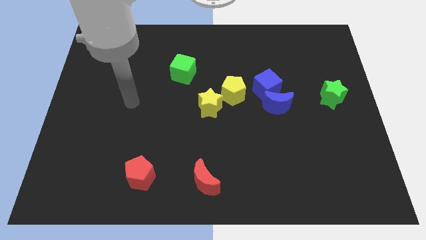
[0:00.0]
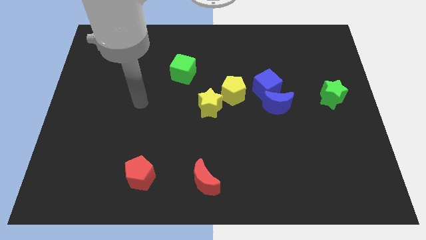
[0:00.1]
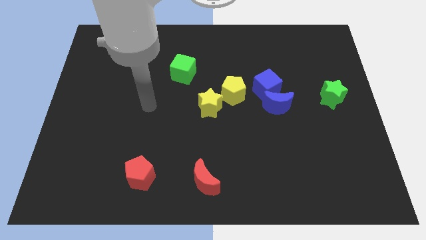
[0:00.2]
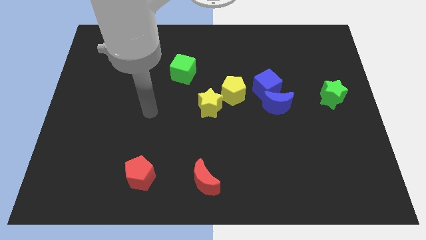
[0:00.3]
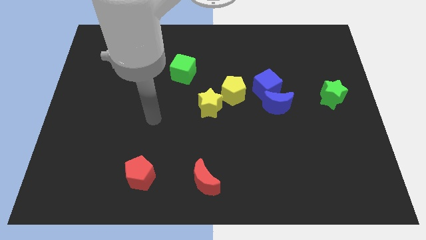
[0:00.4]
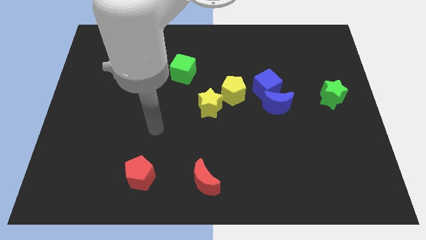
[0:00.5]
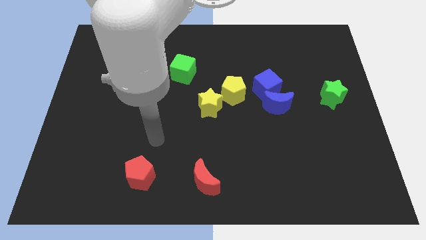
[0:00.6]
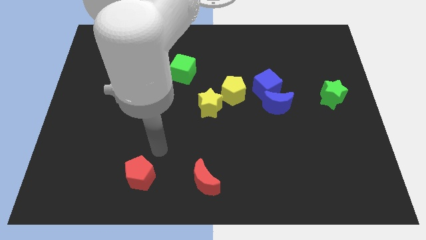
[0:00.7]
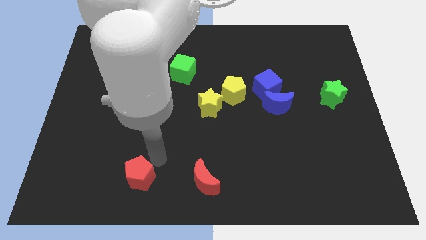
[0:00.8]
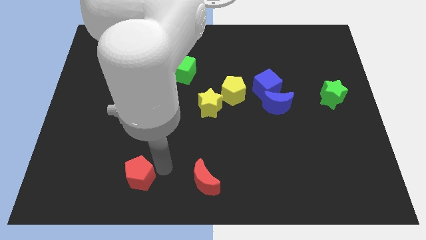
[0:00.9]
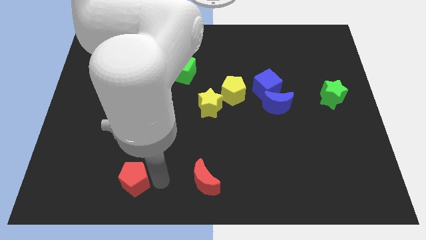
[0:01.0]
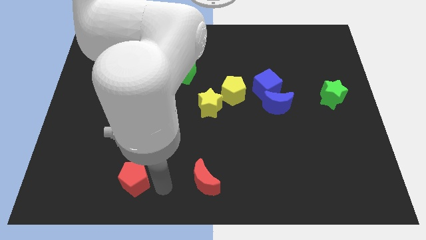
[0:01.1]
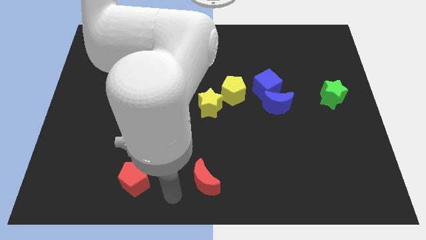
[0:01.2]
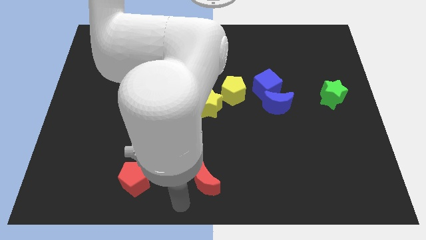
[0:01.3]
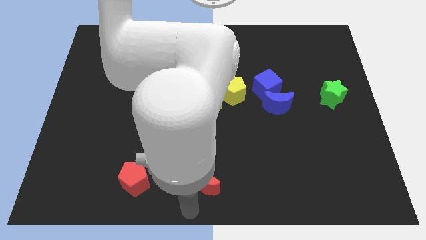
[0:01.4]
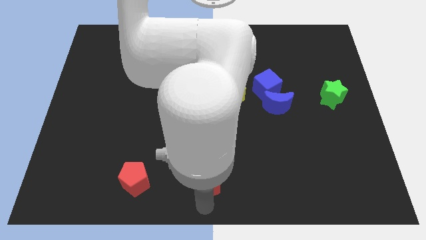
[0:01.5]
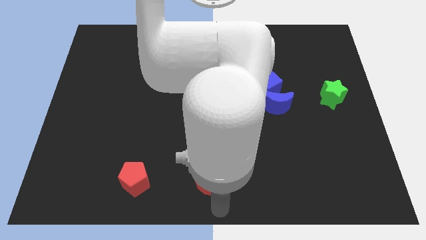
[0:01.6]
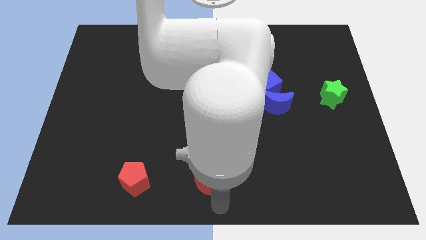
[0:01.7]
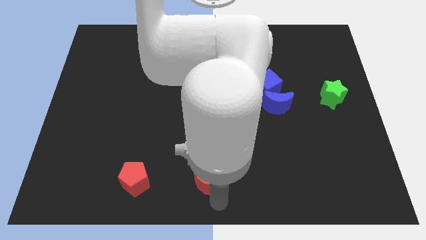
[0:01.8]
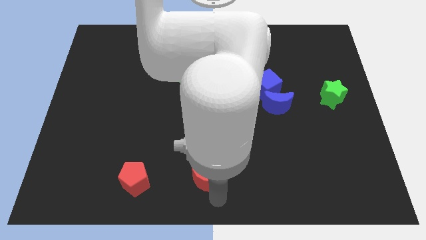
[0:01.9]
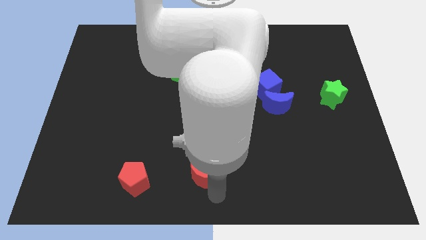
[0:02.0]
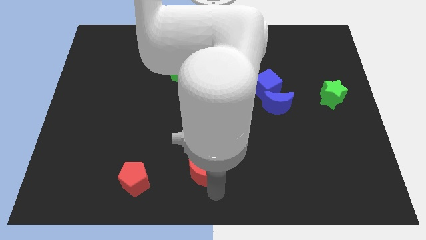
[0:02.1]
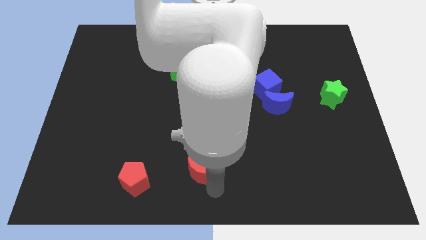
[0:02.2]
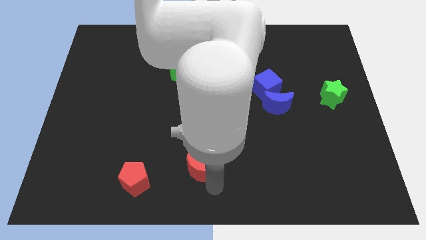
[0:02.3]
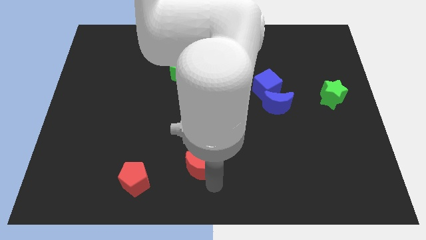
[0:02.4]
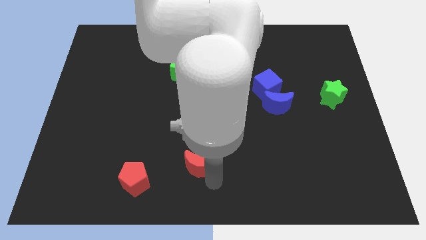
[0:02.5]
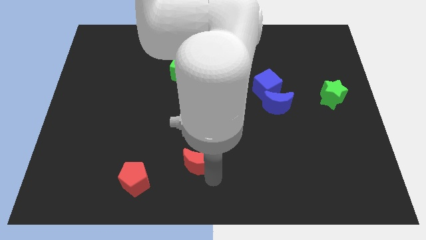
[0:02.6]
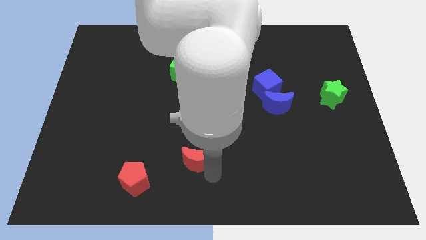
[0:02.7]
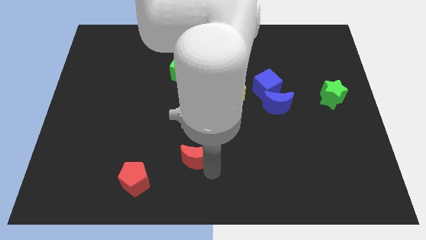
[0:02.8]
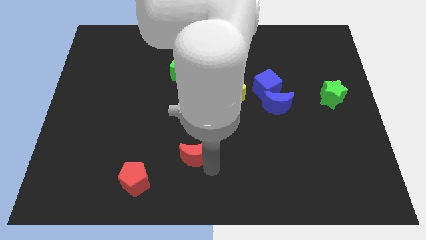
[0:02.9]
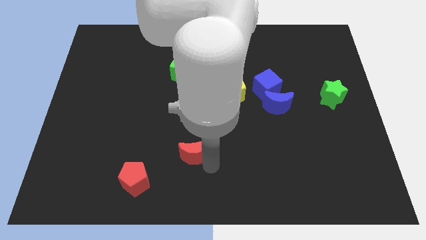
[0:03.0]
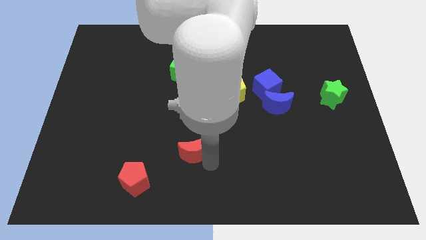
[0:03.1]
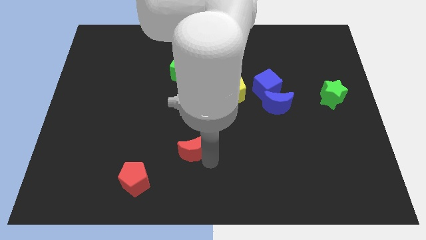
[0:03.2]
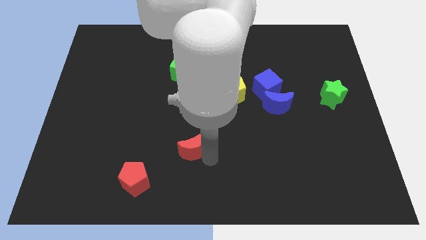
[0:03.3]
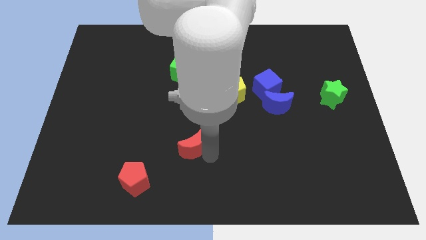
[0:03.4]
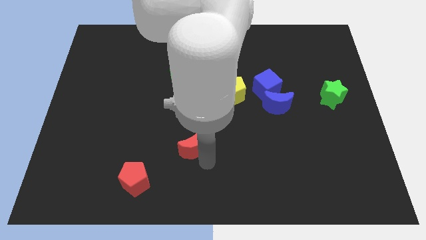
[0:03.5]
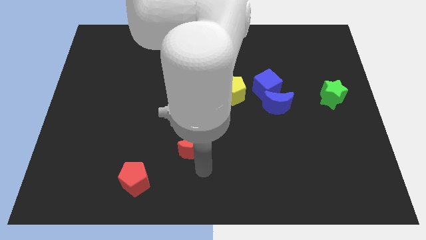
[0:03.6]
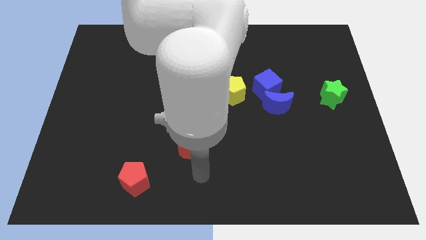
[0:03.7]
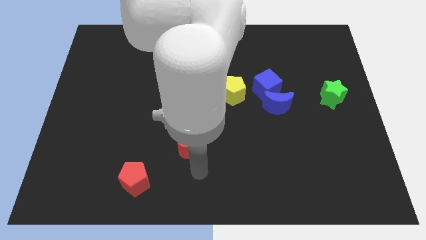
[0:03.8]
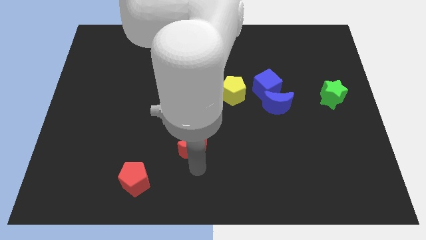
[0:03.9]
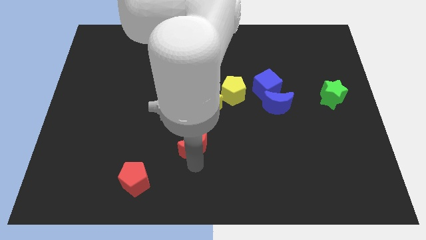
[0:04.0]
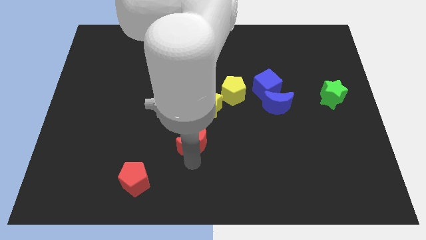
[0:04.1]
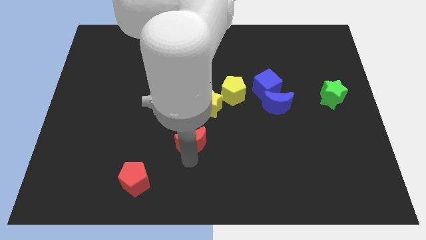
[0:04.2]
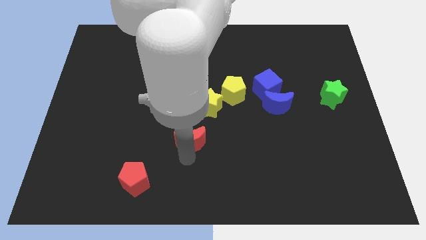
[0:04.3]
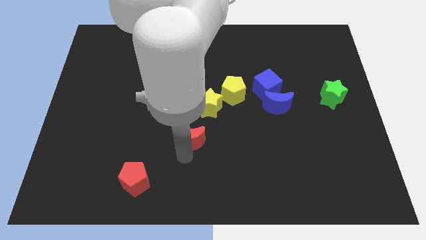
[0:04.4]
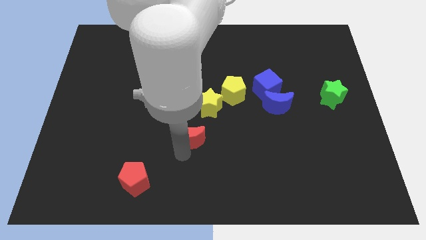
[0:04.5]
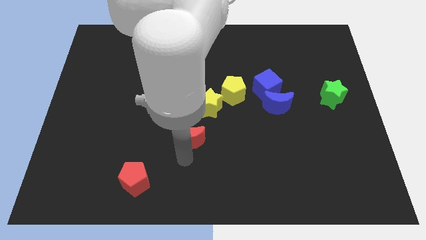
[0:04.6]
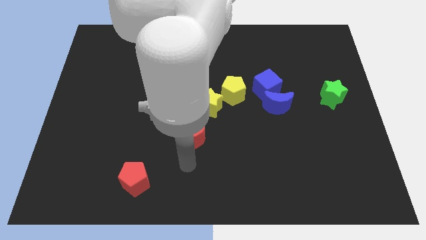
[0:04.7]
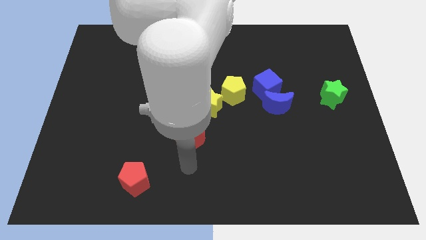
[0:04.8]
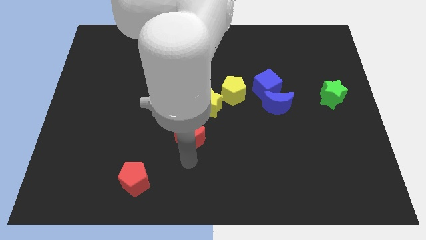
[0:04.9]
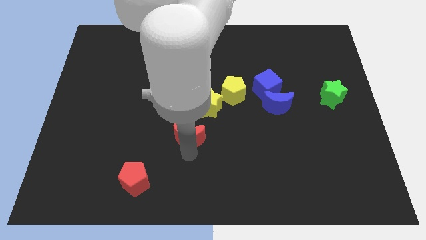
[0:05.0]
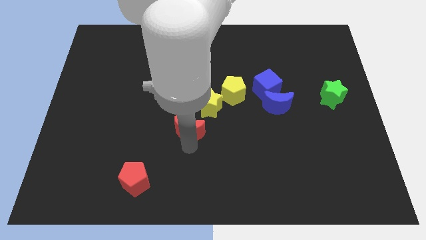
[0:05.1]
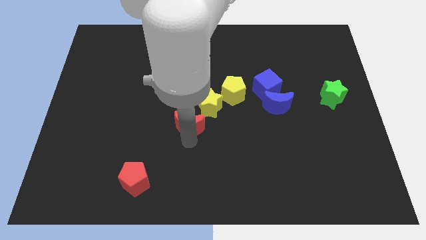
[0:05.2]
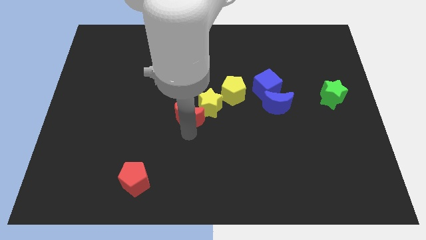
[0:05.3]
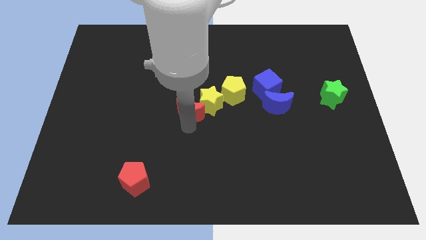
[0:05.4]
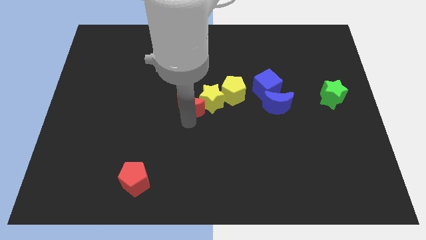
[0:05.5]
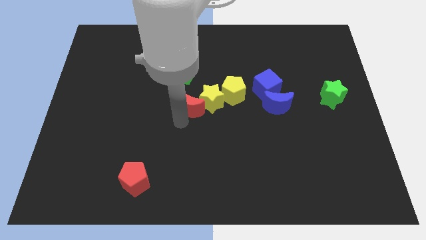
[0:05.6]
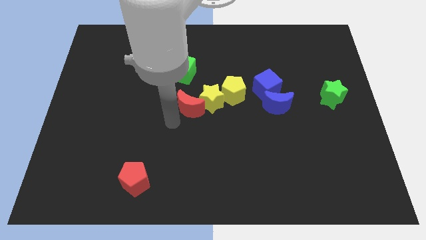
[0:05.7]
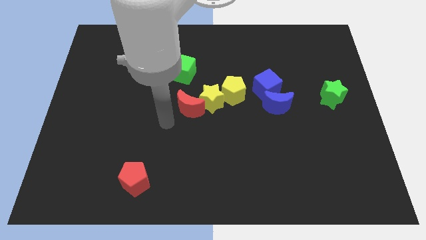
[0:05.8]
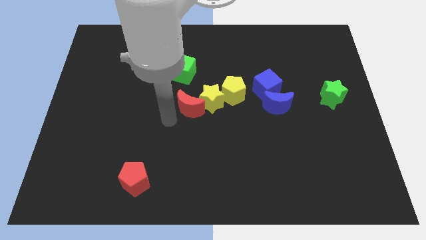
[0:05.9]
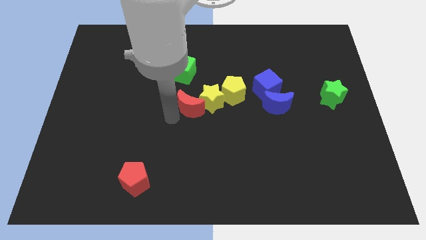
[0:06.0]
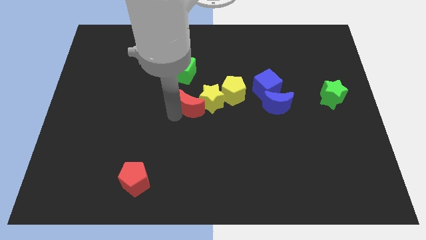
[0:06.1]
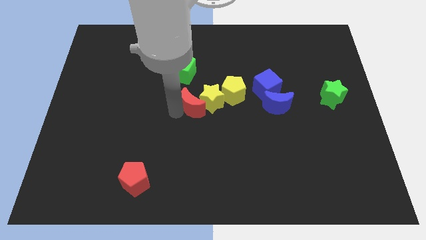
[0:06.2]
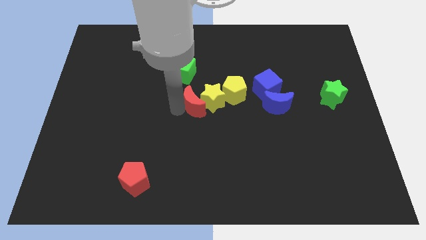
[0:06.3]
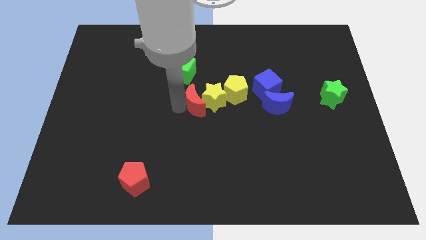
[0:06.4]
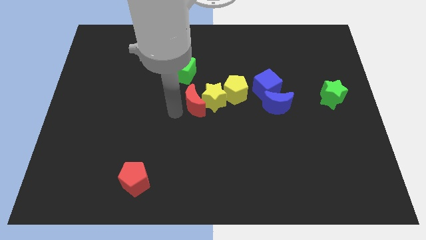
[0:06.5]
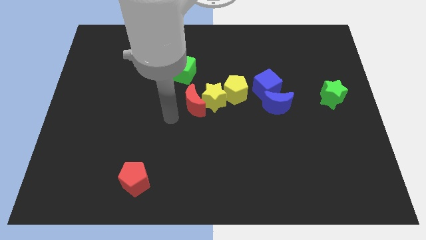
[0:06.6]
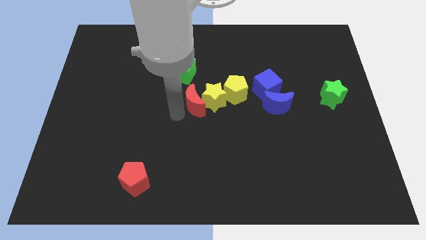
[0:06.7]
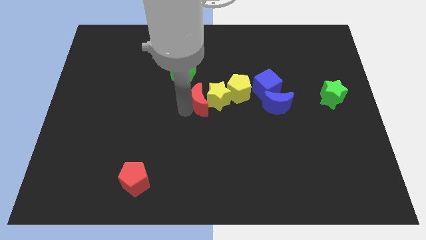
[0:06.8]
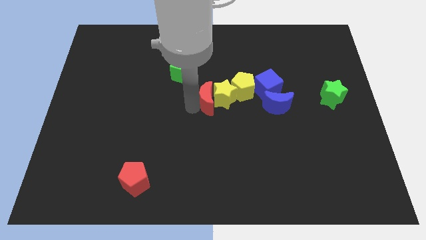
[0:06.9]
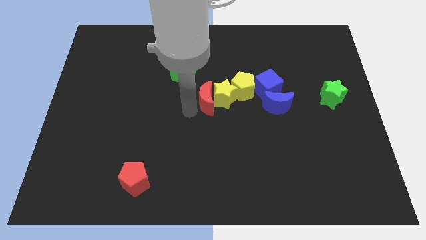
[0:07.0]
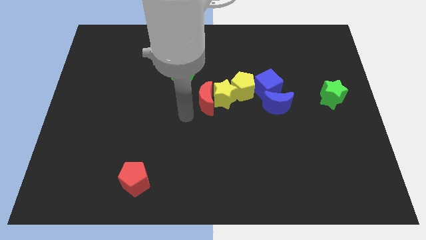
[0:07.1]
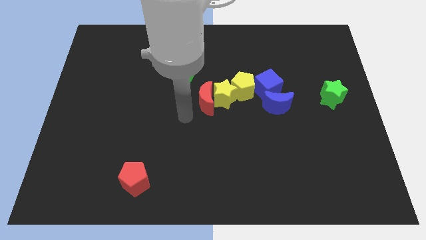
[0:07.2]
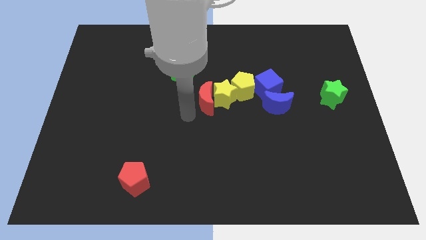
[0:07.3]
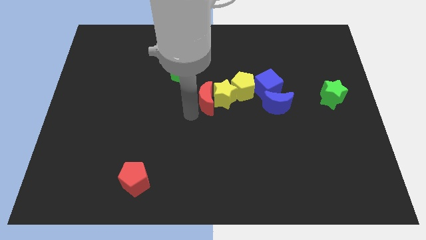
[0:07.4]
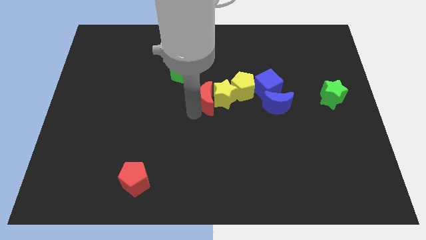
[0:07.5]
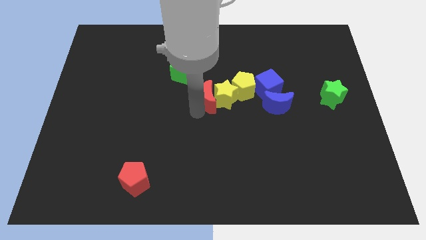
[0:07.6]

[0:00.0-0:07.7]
put the red moon just left of the blue cube
